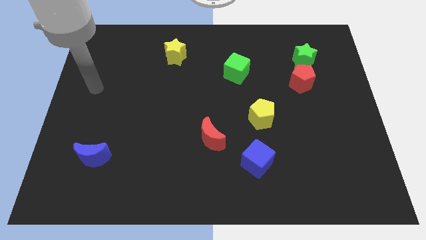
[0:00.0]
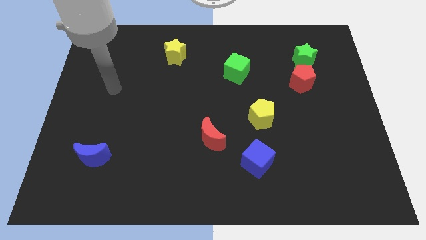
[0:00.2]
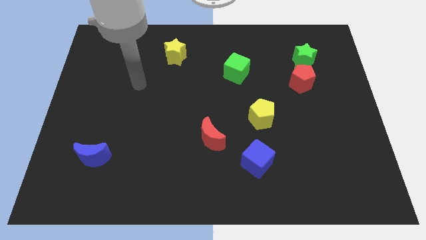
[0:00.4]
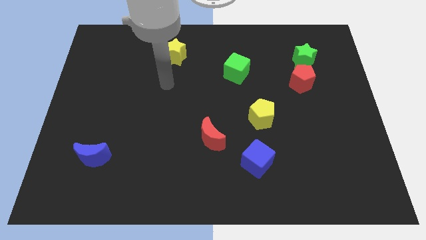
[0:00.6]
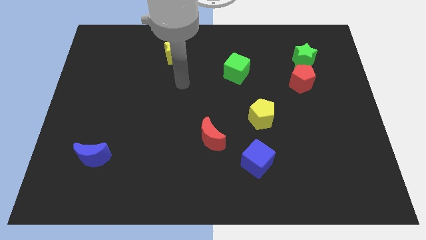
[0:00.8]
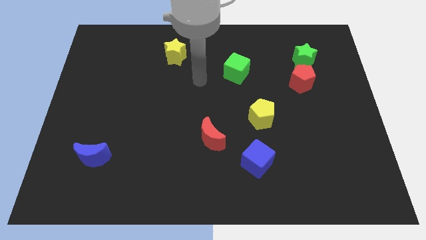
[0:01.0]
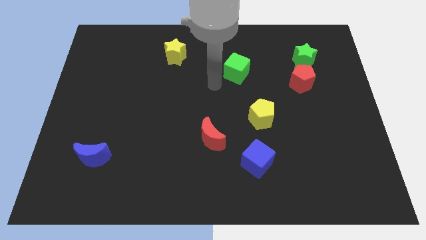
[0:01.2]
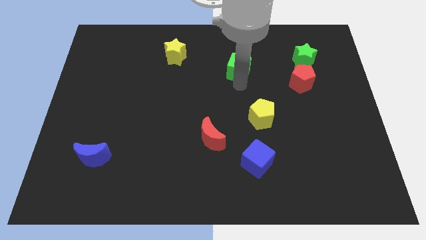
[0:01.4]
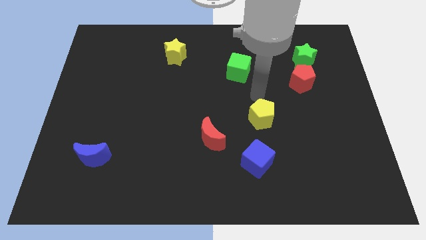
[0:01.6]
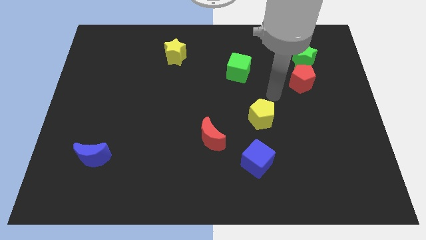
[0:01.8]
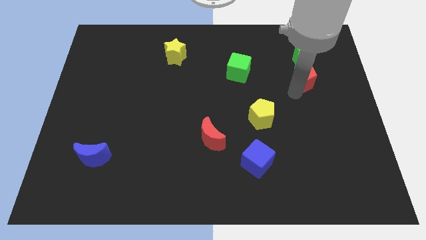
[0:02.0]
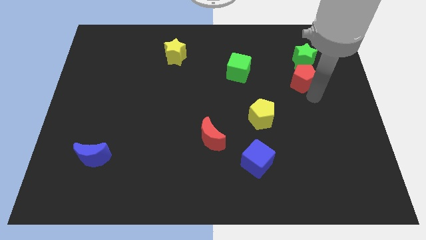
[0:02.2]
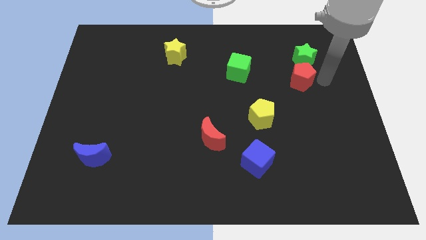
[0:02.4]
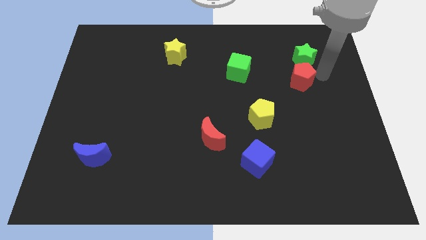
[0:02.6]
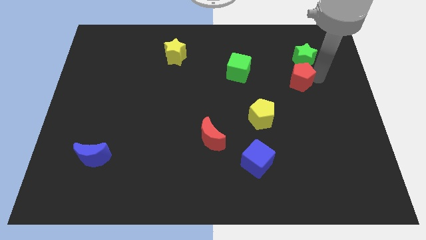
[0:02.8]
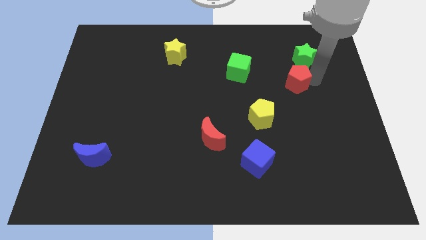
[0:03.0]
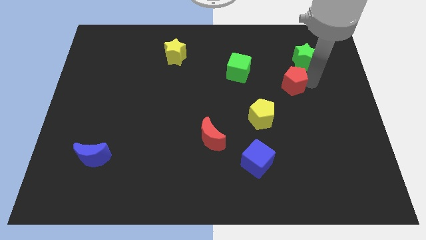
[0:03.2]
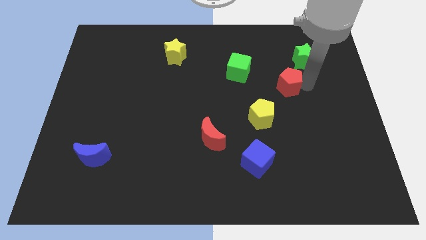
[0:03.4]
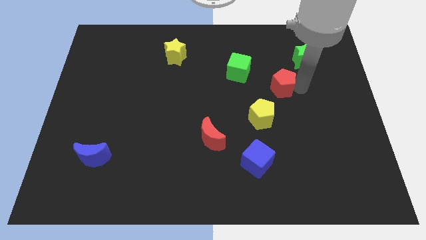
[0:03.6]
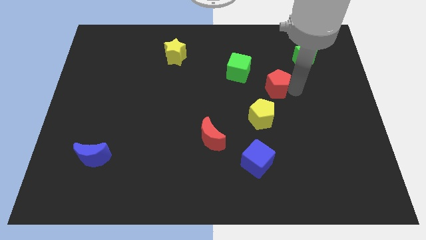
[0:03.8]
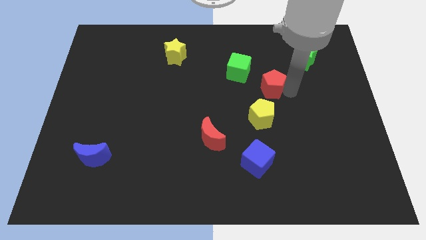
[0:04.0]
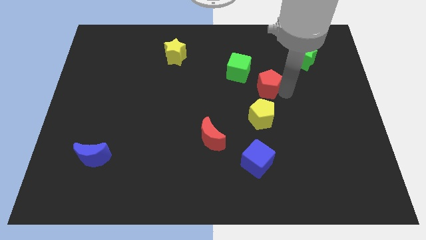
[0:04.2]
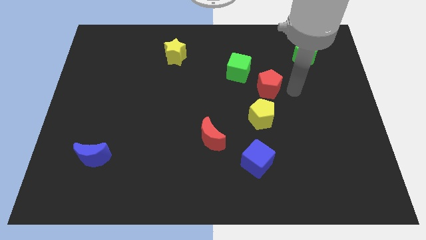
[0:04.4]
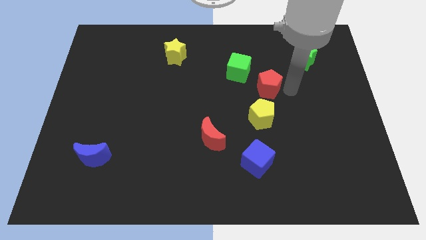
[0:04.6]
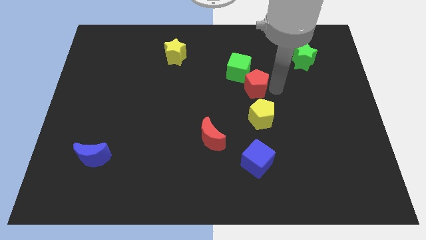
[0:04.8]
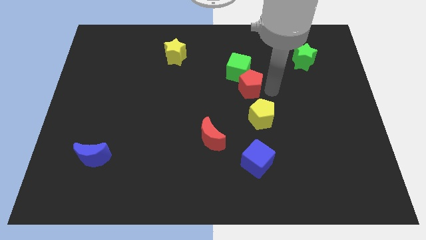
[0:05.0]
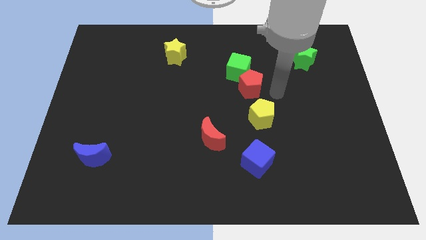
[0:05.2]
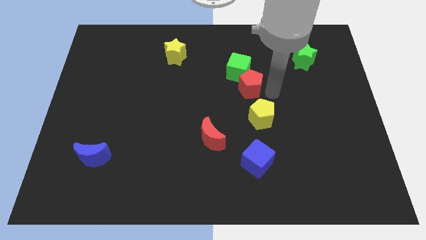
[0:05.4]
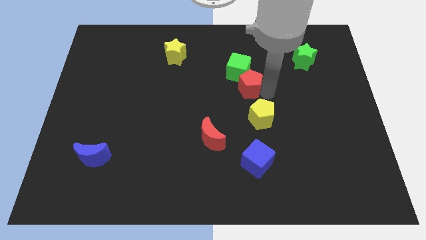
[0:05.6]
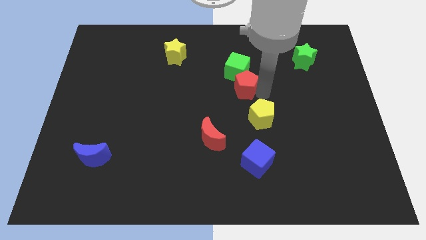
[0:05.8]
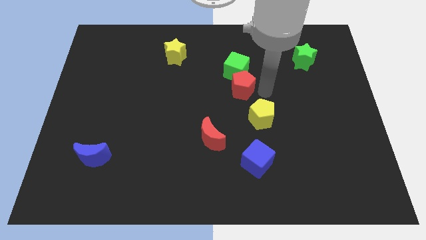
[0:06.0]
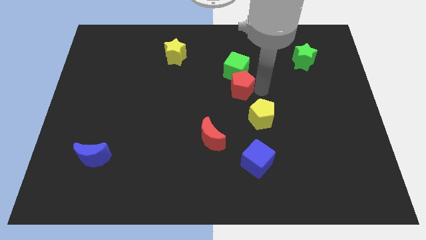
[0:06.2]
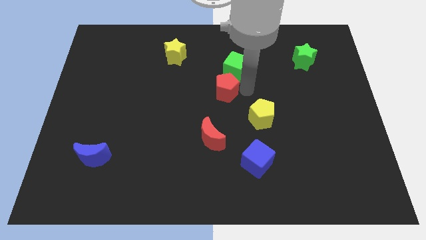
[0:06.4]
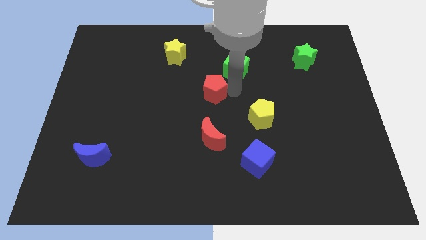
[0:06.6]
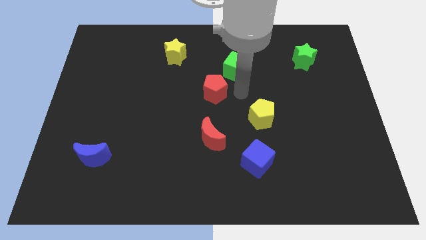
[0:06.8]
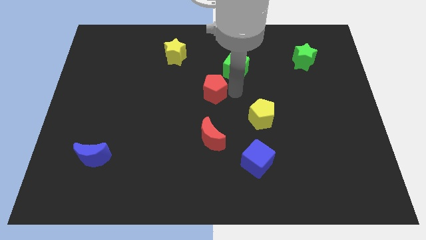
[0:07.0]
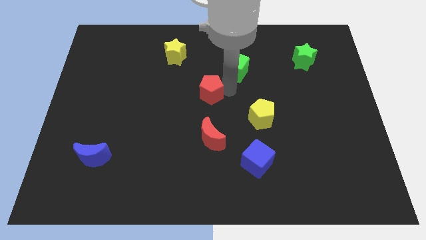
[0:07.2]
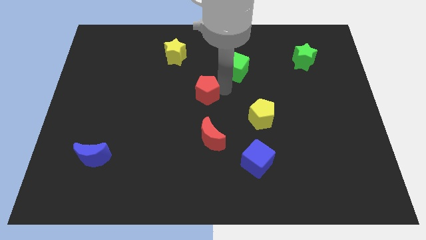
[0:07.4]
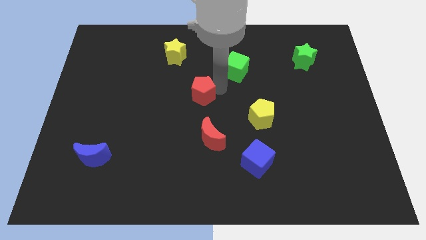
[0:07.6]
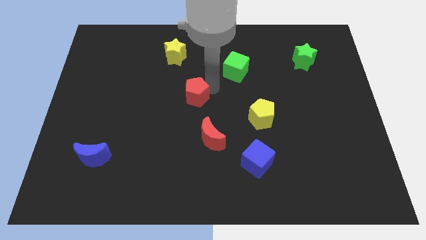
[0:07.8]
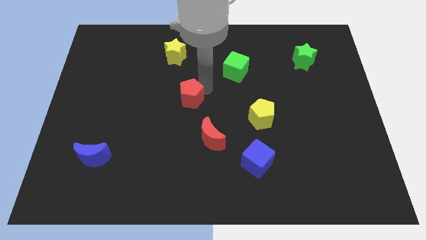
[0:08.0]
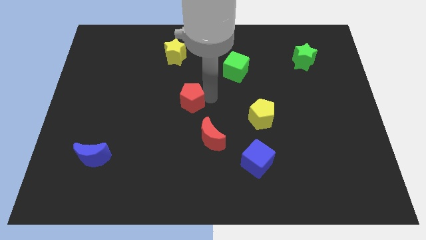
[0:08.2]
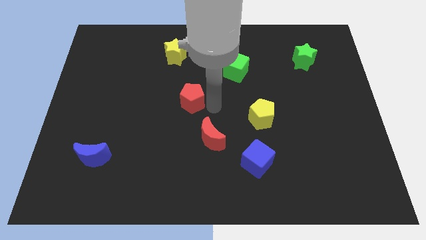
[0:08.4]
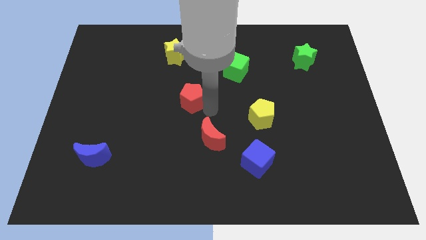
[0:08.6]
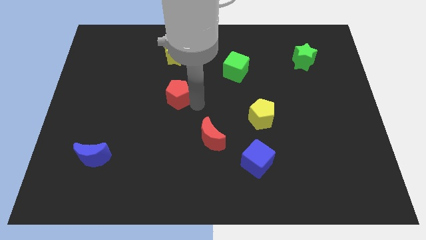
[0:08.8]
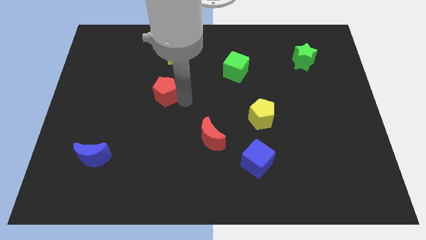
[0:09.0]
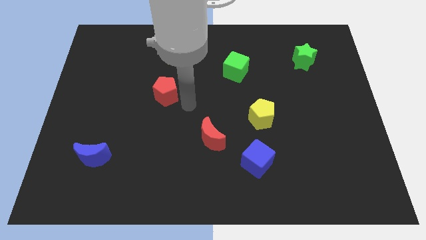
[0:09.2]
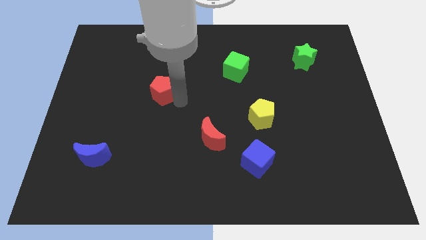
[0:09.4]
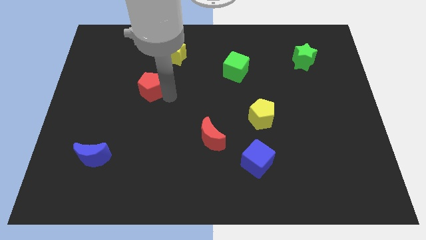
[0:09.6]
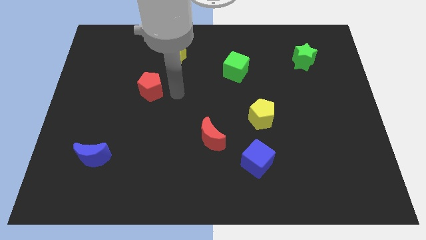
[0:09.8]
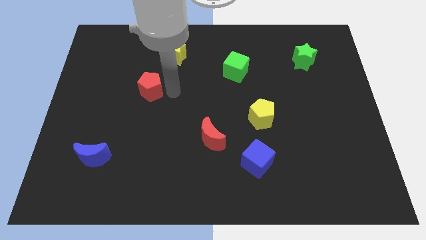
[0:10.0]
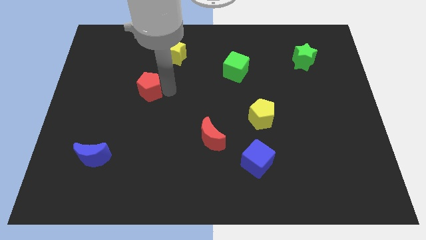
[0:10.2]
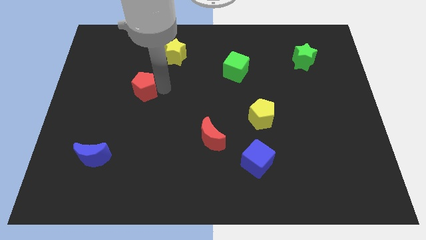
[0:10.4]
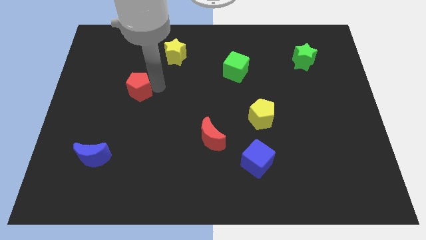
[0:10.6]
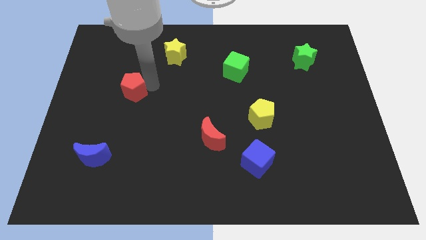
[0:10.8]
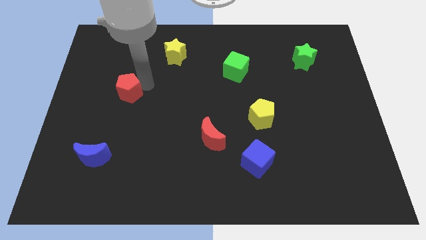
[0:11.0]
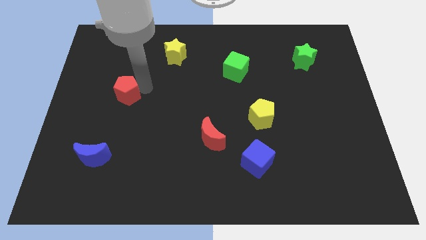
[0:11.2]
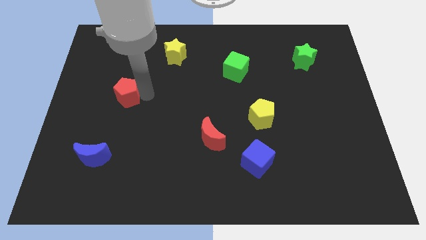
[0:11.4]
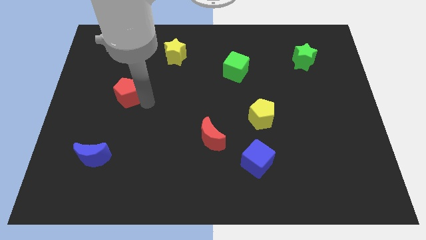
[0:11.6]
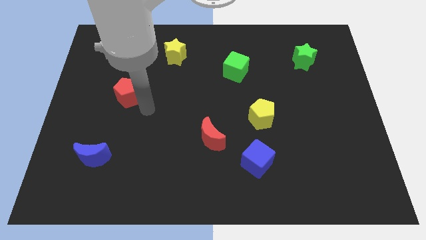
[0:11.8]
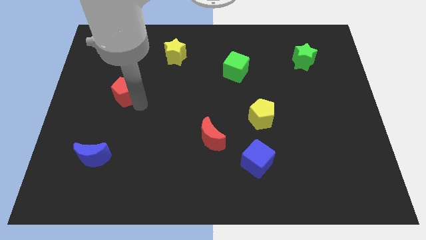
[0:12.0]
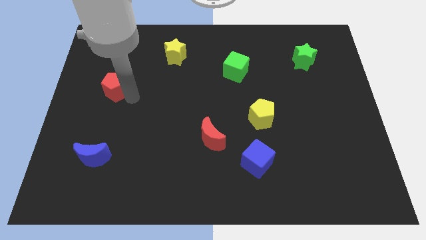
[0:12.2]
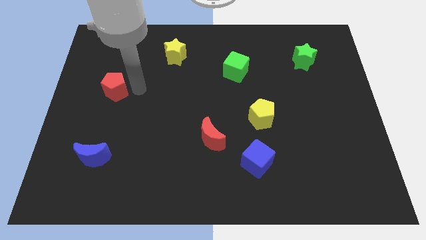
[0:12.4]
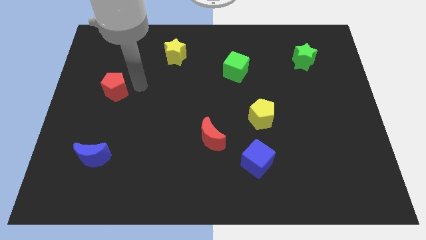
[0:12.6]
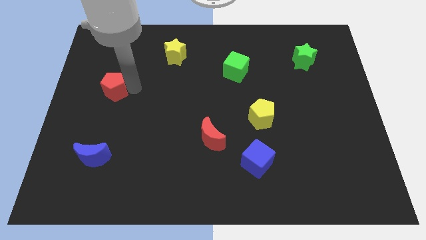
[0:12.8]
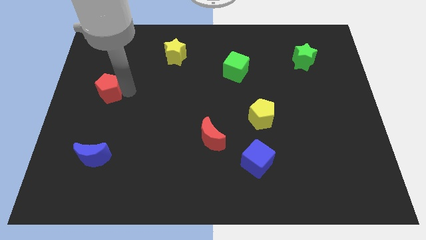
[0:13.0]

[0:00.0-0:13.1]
put the red pentagon to the left side of the board

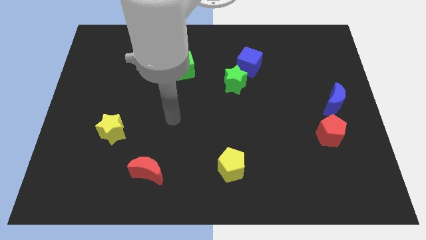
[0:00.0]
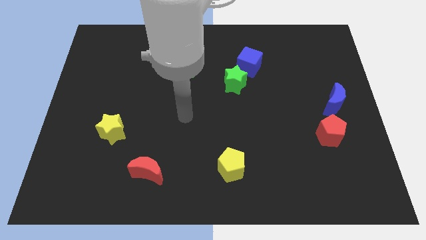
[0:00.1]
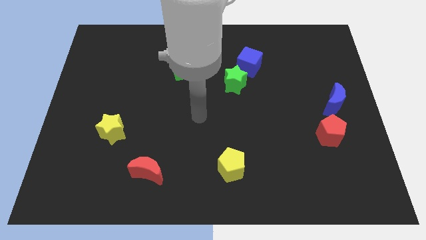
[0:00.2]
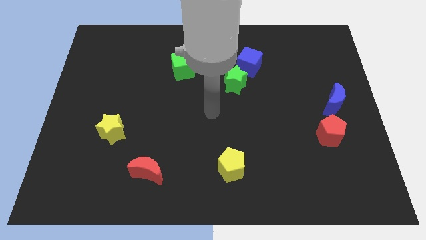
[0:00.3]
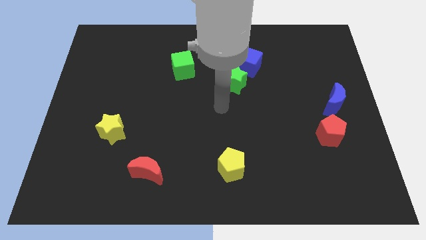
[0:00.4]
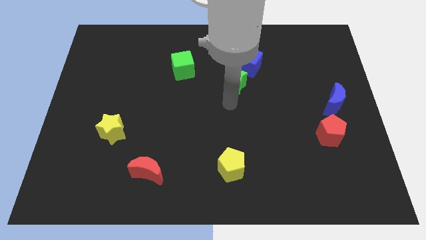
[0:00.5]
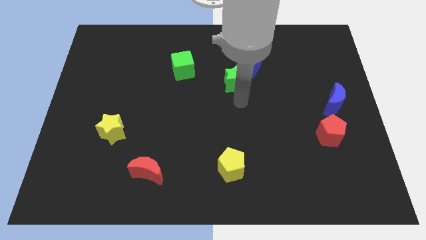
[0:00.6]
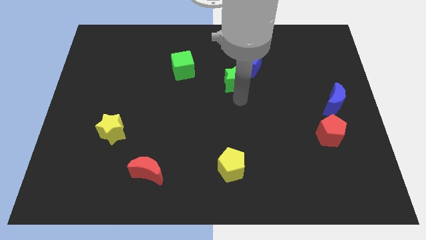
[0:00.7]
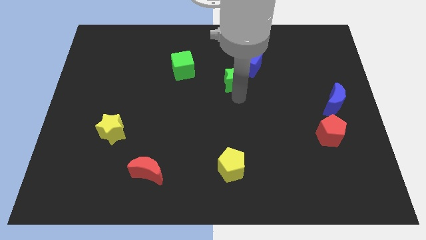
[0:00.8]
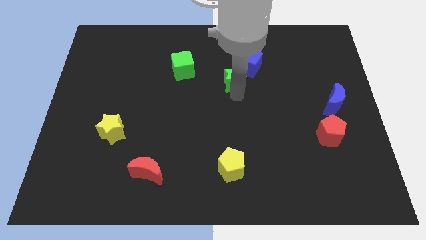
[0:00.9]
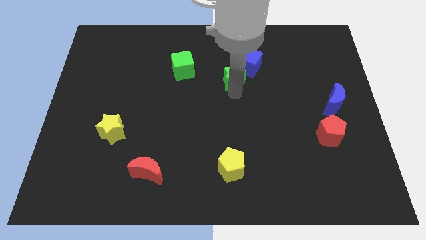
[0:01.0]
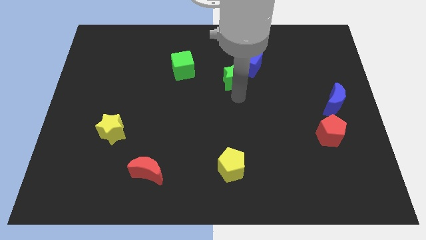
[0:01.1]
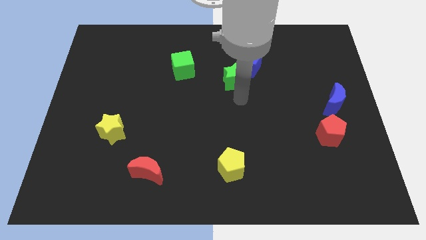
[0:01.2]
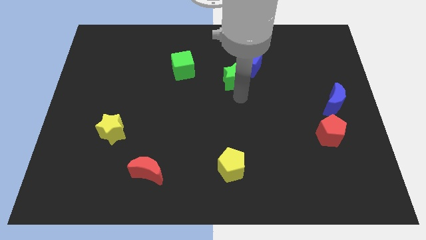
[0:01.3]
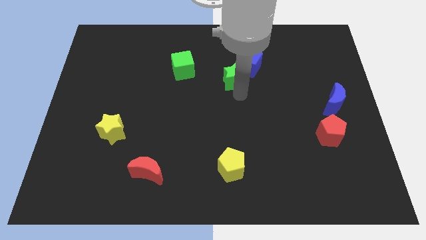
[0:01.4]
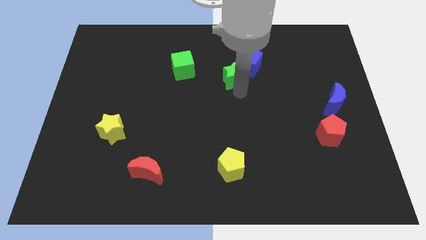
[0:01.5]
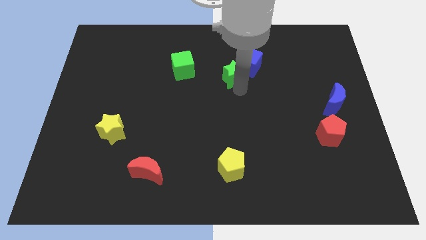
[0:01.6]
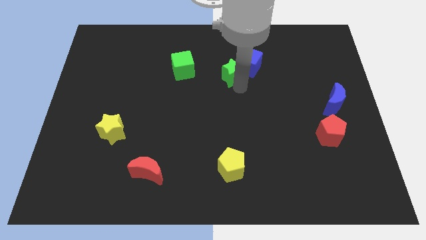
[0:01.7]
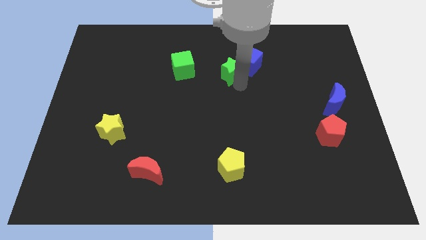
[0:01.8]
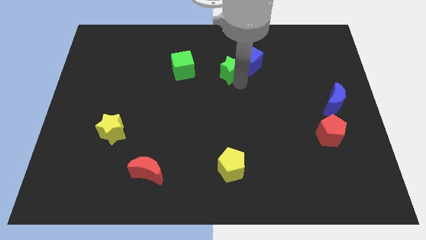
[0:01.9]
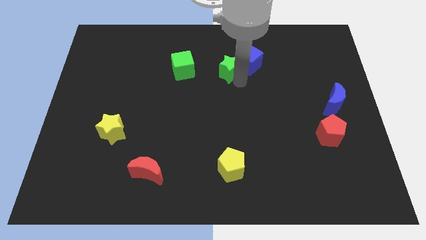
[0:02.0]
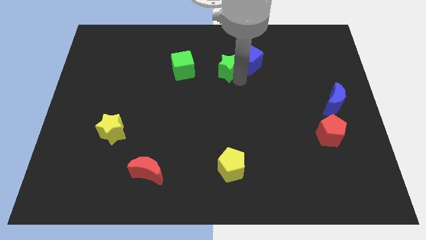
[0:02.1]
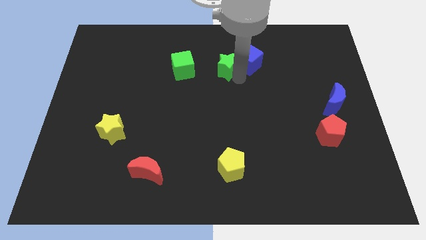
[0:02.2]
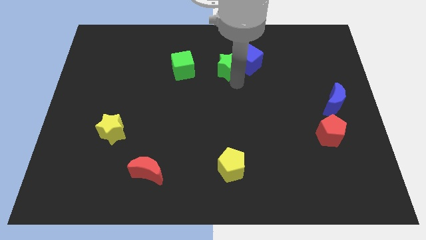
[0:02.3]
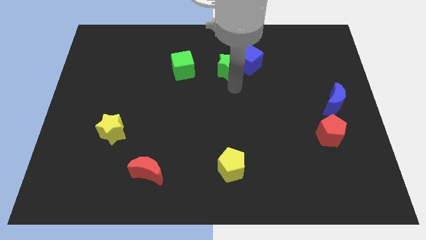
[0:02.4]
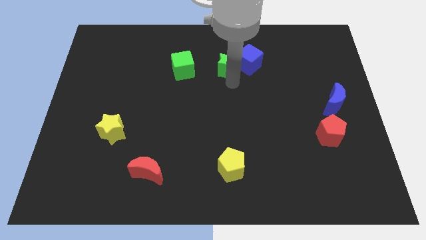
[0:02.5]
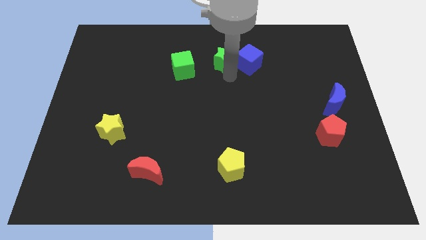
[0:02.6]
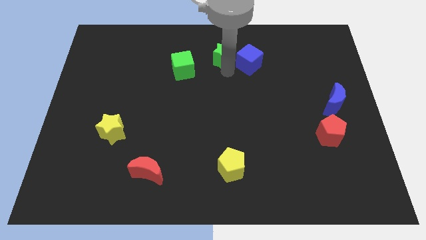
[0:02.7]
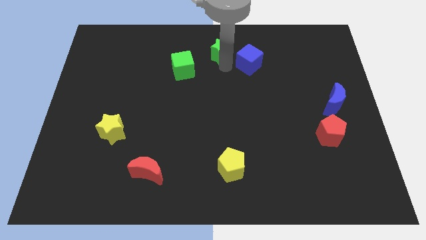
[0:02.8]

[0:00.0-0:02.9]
move the green star to the top
